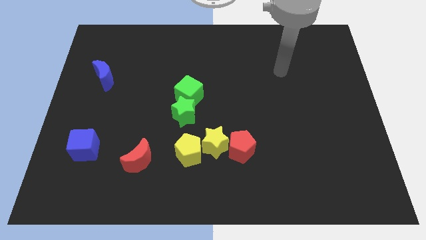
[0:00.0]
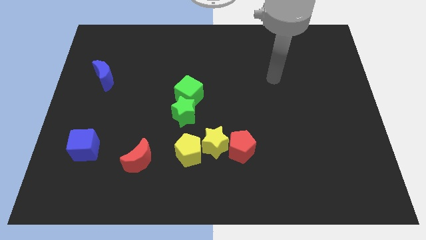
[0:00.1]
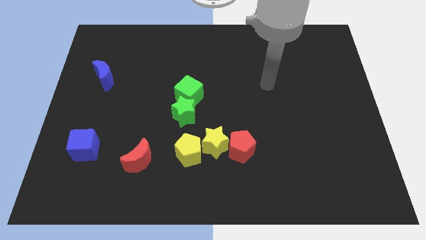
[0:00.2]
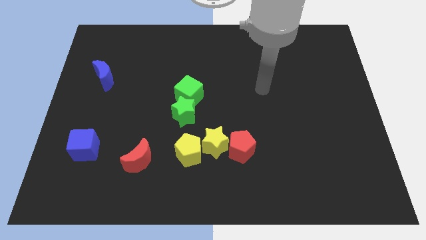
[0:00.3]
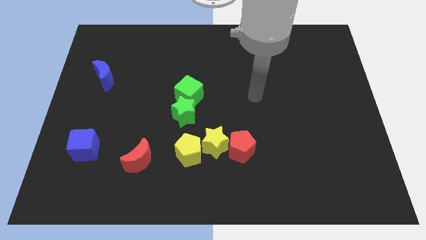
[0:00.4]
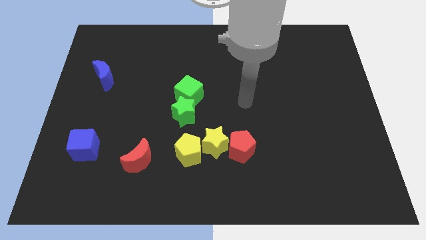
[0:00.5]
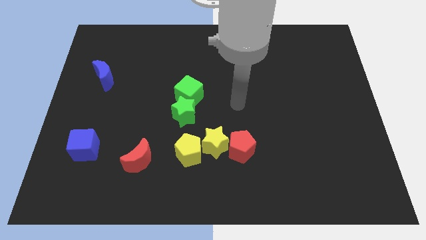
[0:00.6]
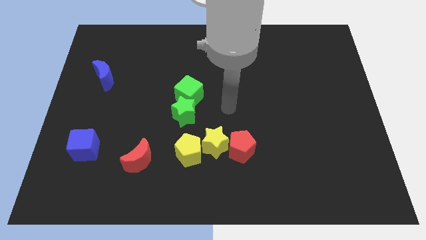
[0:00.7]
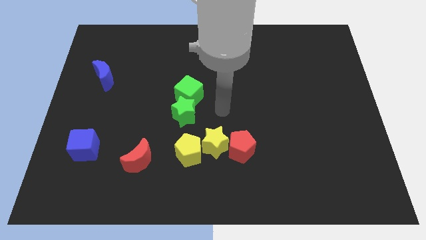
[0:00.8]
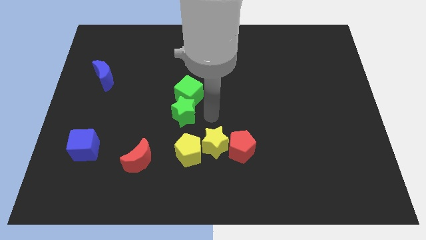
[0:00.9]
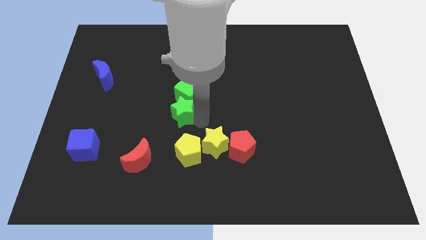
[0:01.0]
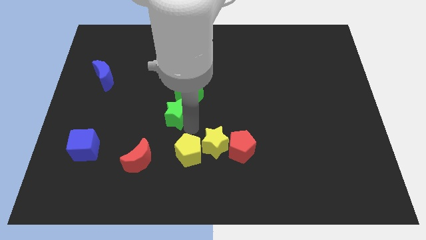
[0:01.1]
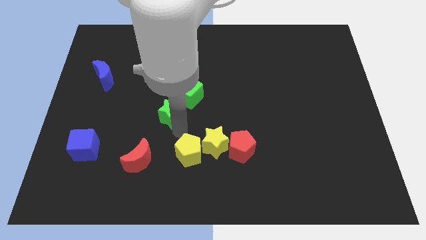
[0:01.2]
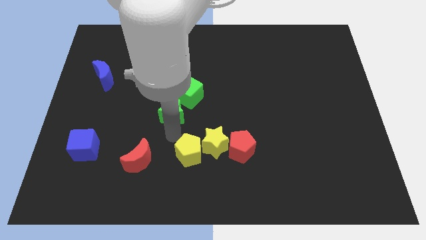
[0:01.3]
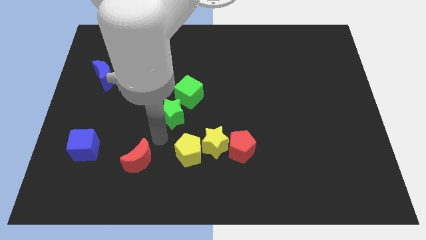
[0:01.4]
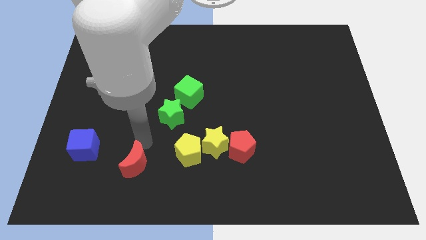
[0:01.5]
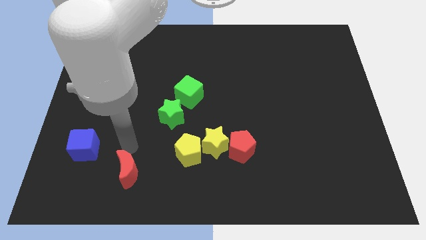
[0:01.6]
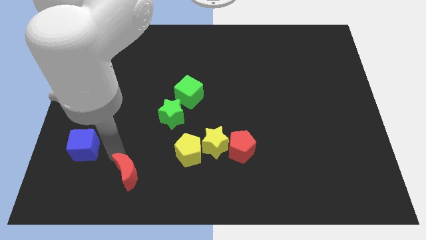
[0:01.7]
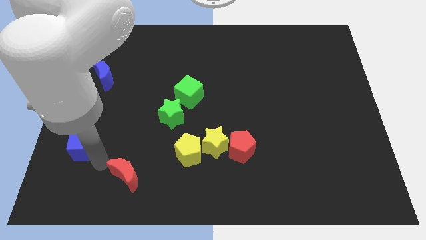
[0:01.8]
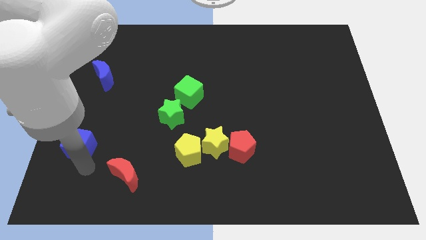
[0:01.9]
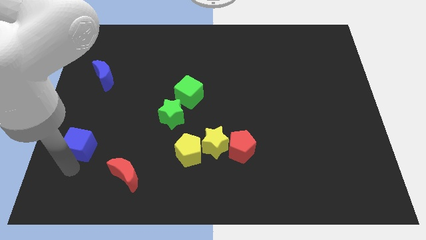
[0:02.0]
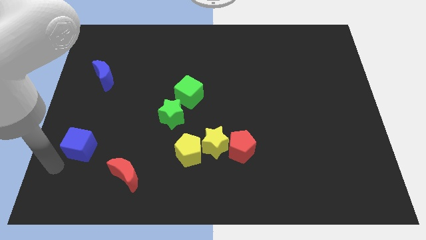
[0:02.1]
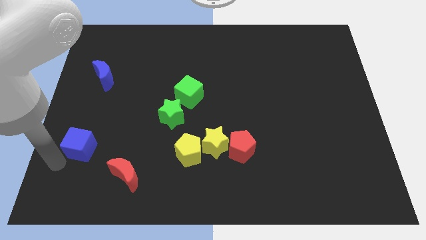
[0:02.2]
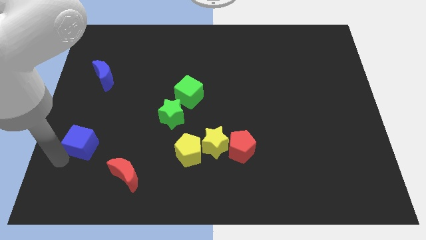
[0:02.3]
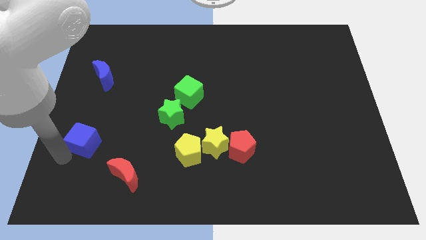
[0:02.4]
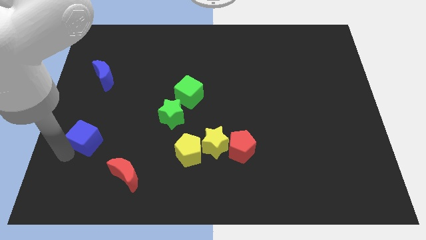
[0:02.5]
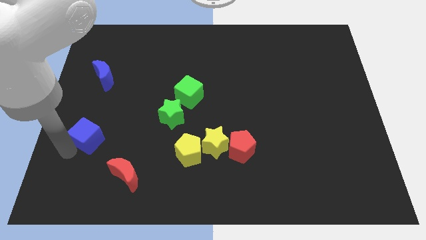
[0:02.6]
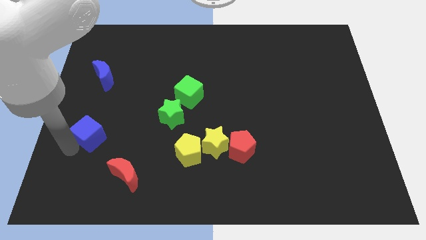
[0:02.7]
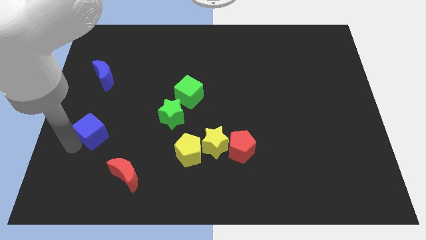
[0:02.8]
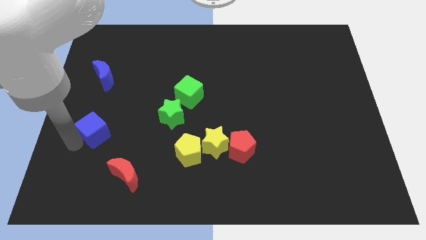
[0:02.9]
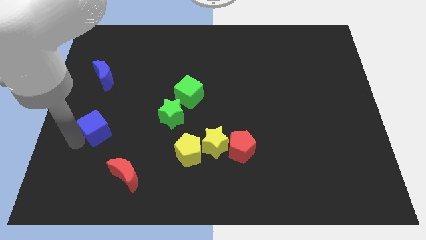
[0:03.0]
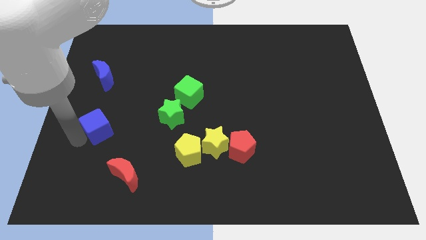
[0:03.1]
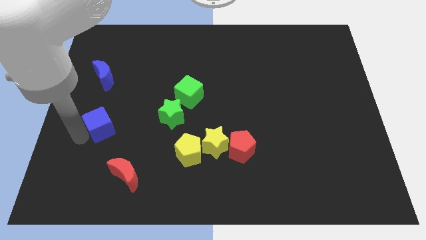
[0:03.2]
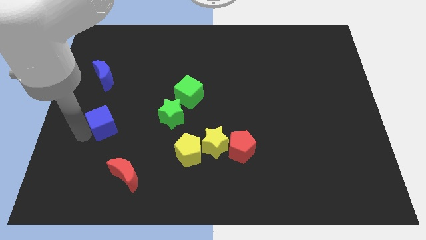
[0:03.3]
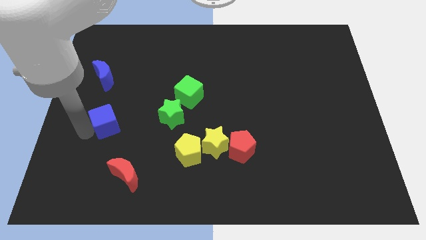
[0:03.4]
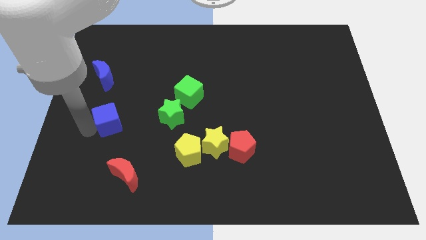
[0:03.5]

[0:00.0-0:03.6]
slide the blue cube up and to the right a bit

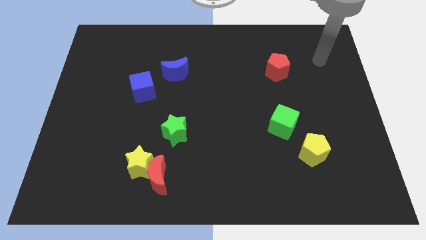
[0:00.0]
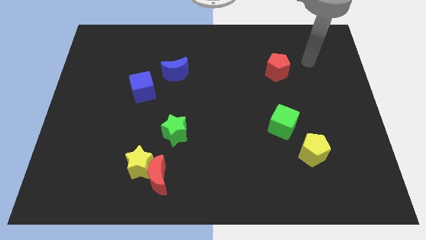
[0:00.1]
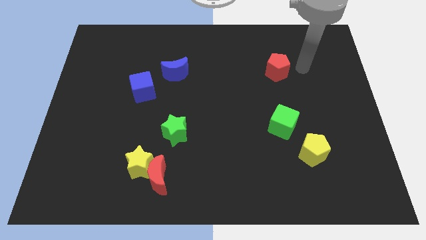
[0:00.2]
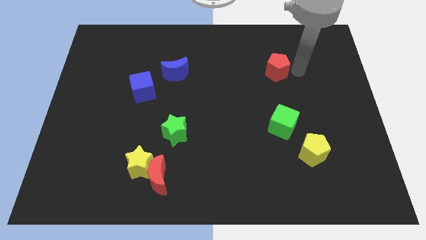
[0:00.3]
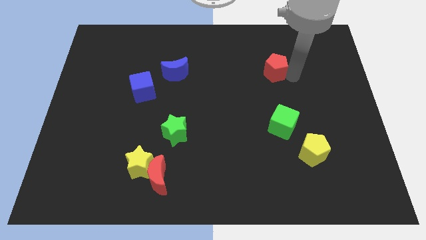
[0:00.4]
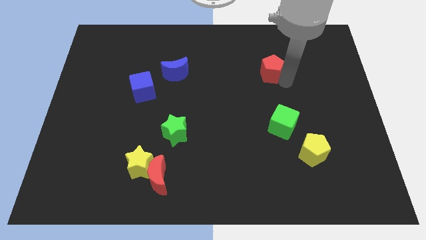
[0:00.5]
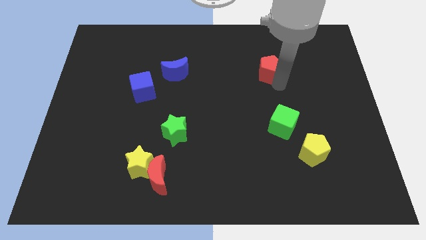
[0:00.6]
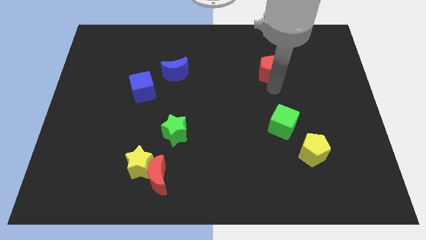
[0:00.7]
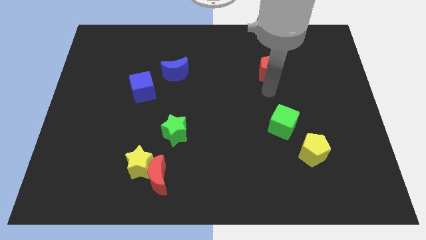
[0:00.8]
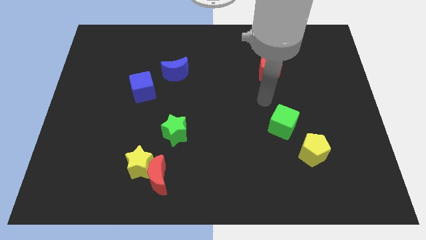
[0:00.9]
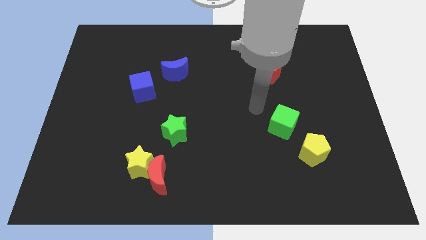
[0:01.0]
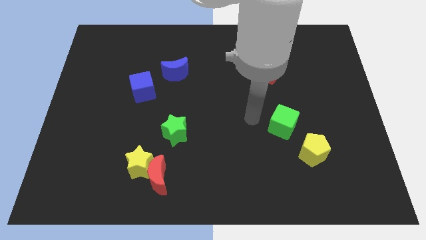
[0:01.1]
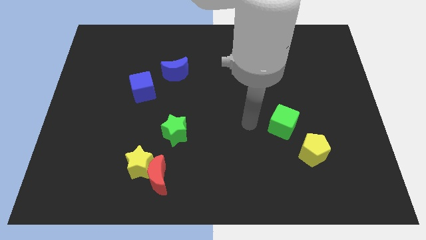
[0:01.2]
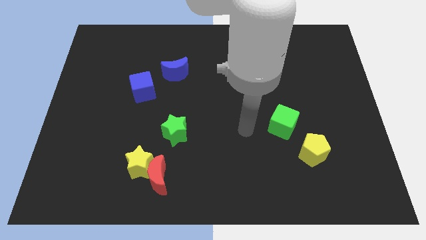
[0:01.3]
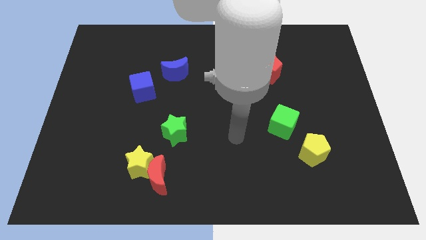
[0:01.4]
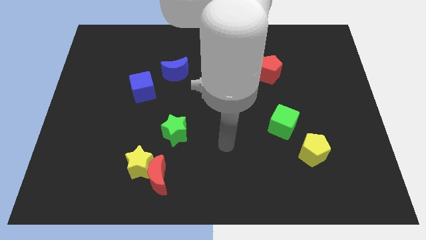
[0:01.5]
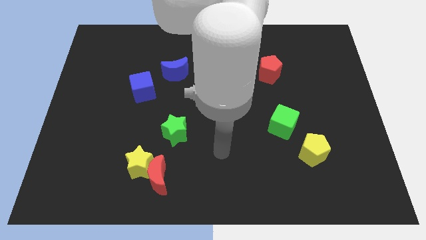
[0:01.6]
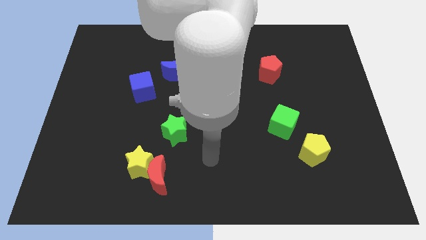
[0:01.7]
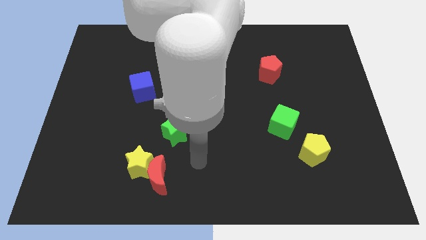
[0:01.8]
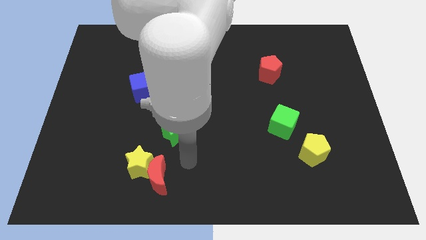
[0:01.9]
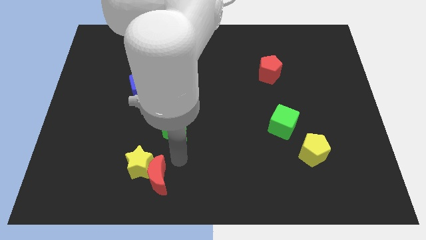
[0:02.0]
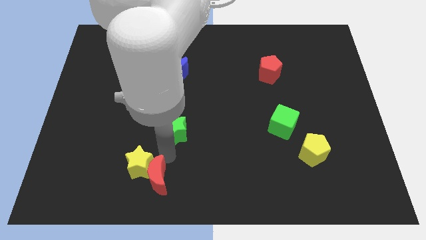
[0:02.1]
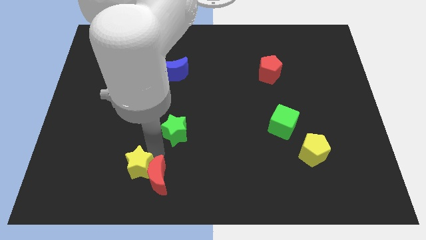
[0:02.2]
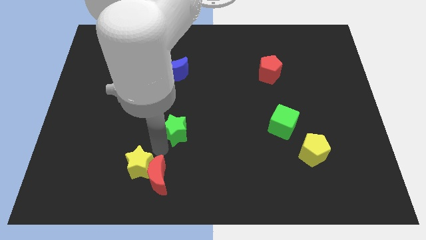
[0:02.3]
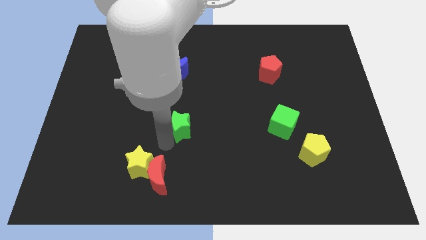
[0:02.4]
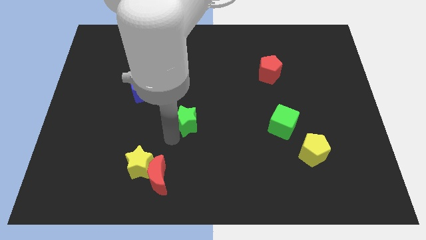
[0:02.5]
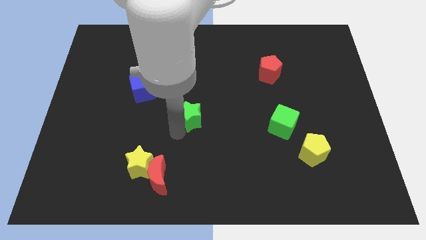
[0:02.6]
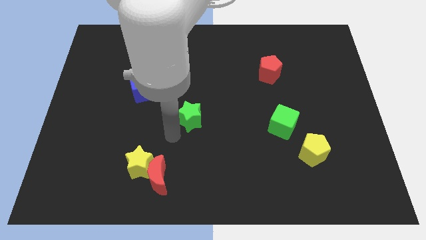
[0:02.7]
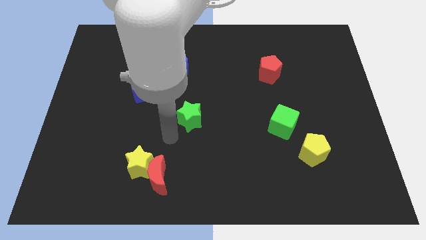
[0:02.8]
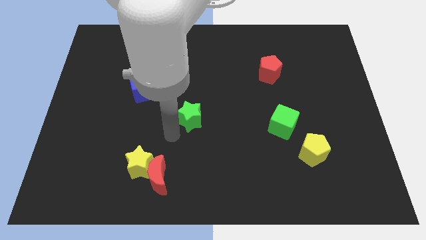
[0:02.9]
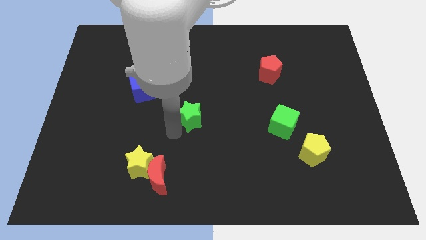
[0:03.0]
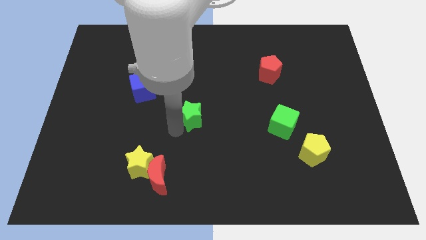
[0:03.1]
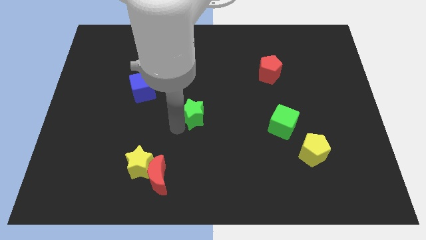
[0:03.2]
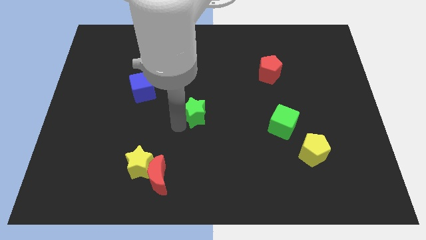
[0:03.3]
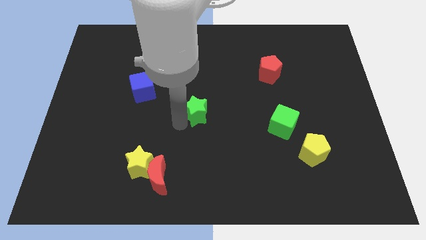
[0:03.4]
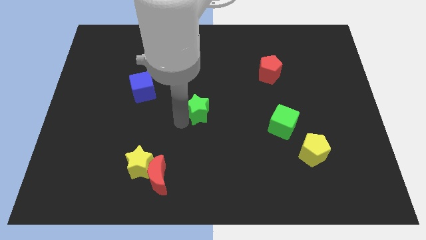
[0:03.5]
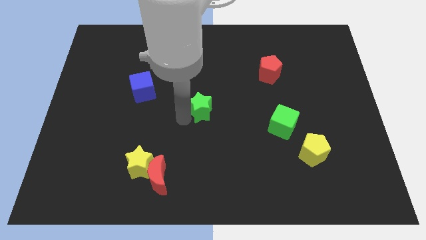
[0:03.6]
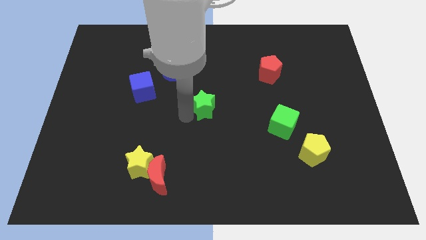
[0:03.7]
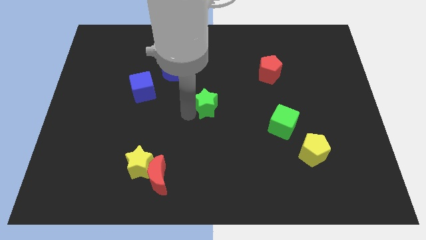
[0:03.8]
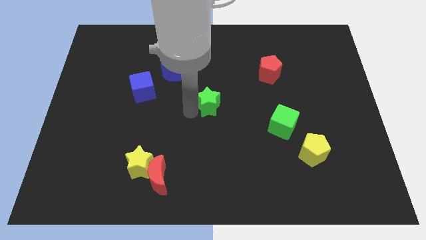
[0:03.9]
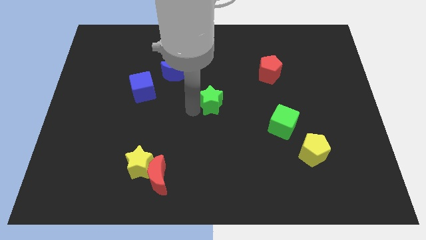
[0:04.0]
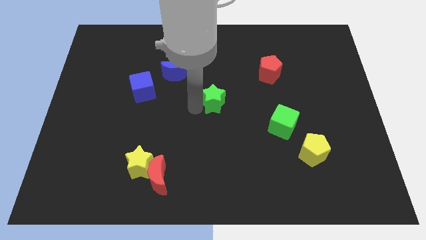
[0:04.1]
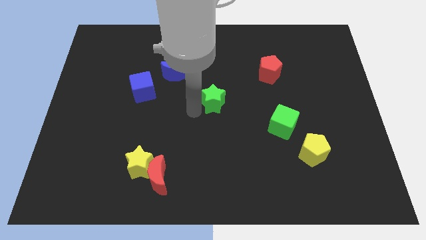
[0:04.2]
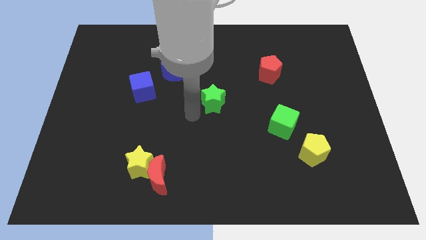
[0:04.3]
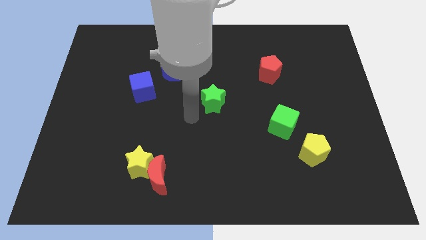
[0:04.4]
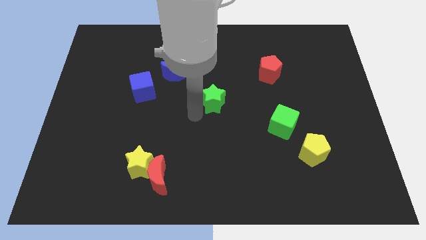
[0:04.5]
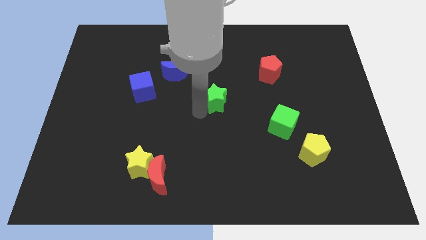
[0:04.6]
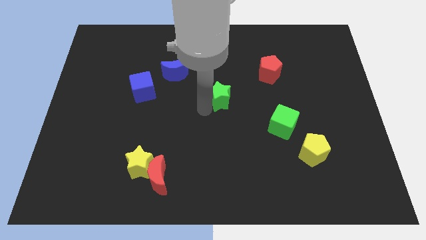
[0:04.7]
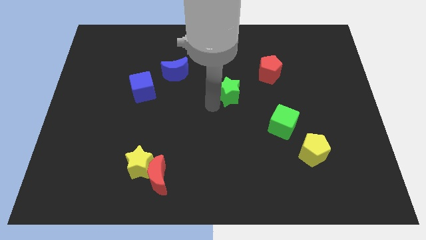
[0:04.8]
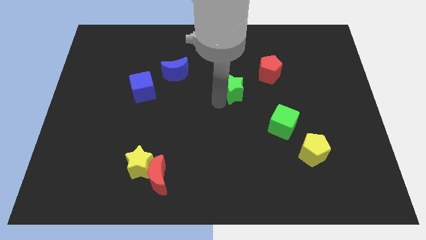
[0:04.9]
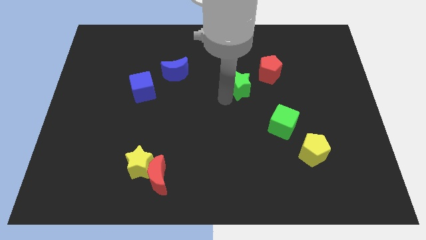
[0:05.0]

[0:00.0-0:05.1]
move the green star up and to the right diagonally
